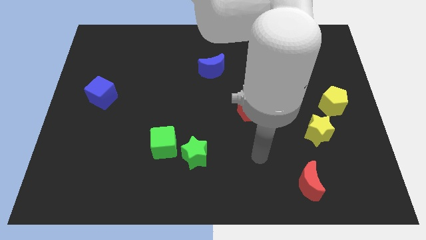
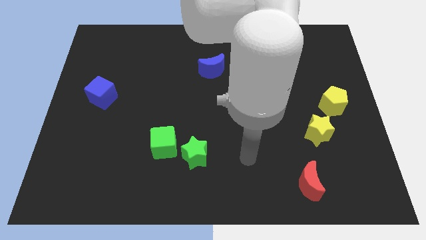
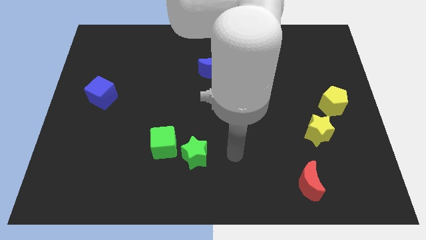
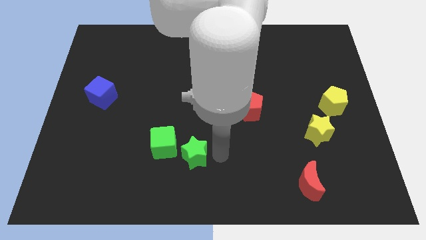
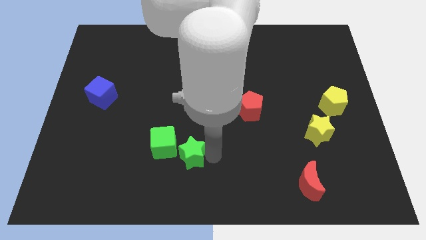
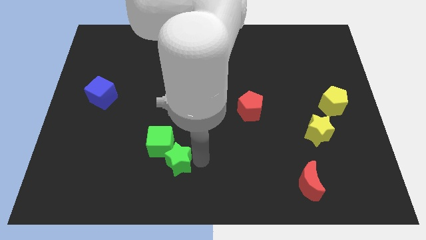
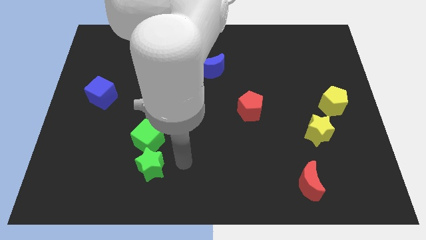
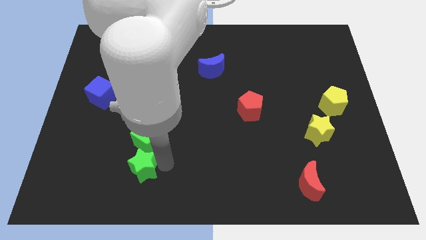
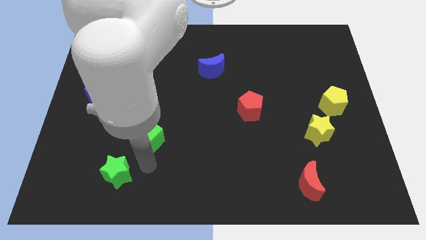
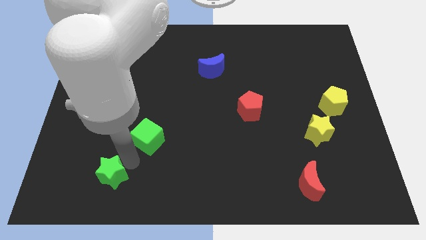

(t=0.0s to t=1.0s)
pull the green cube apart from the green star

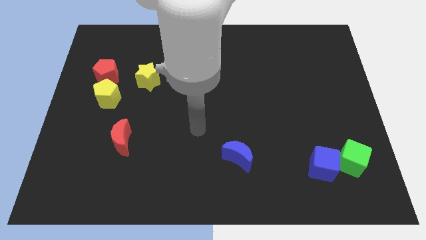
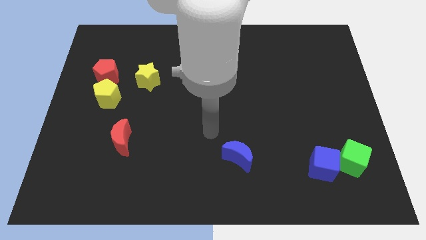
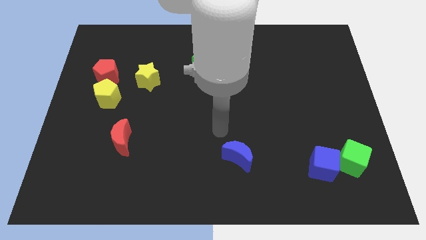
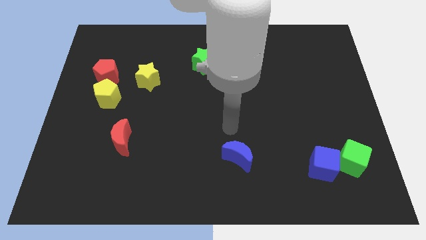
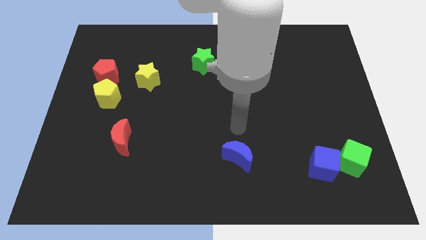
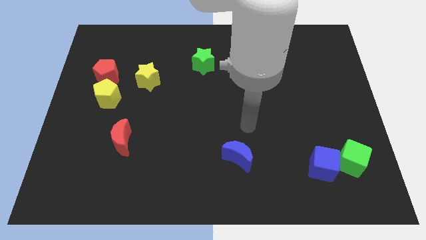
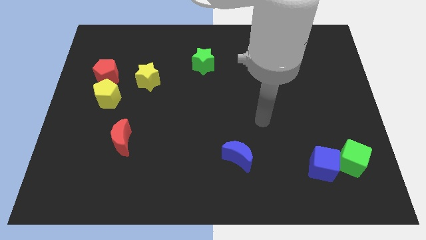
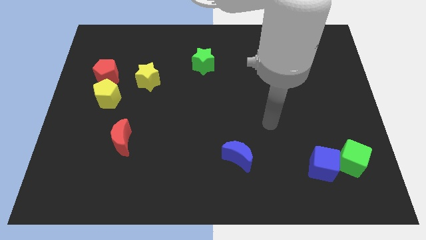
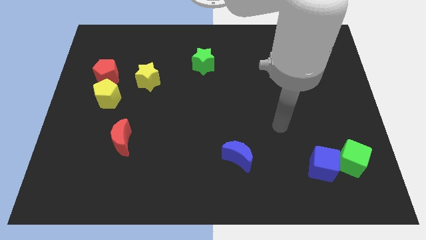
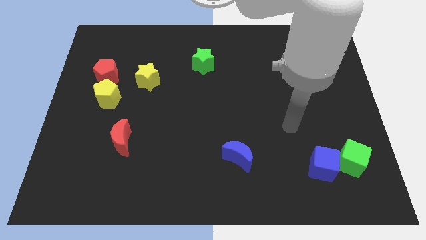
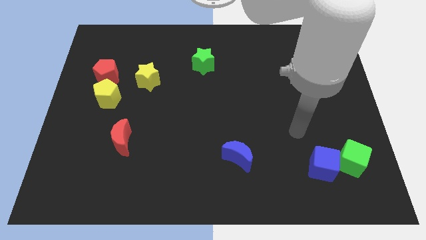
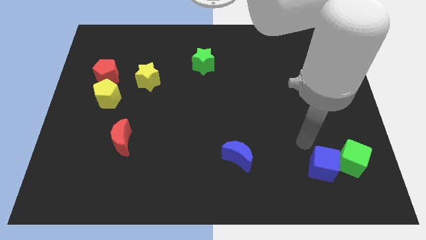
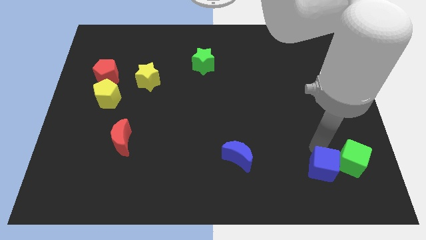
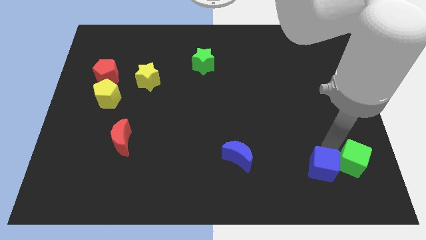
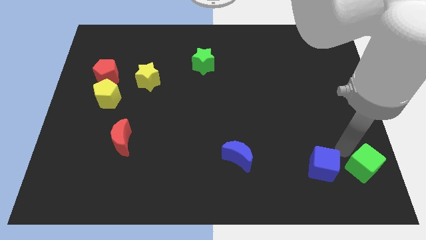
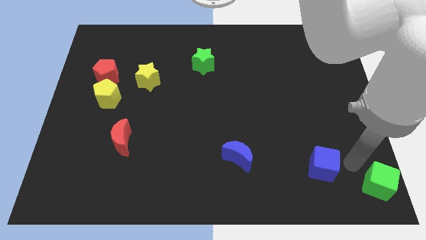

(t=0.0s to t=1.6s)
pull the blue cube apart from the green cube

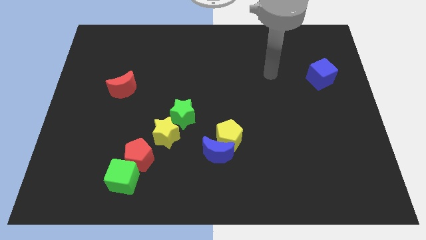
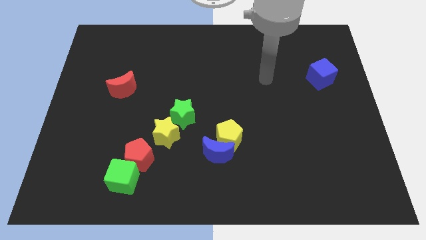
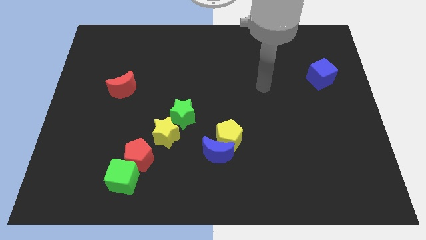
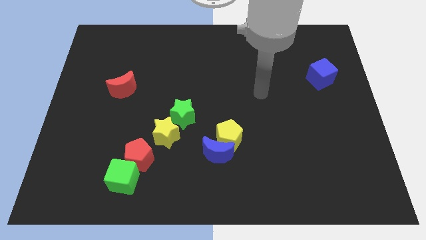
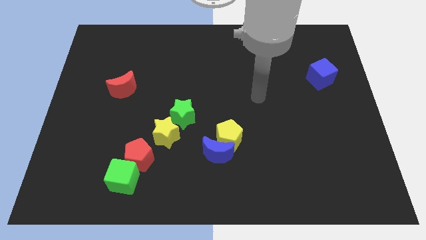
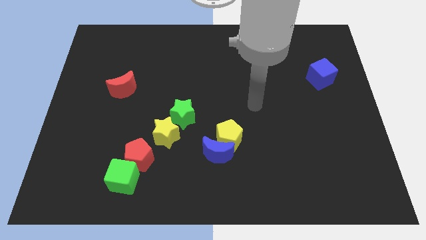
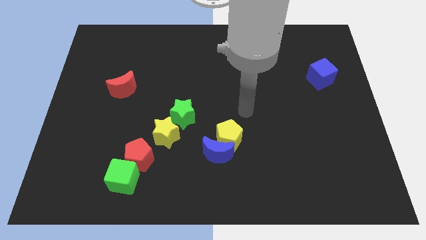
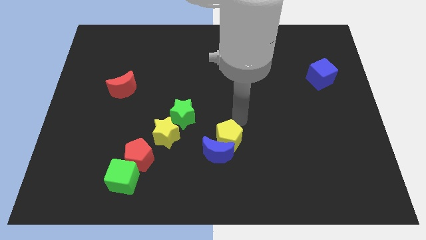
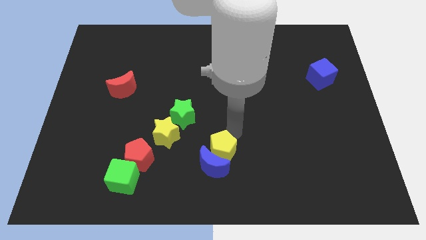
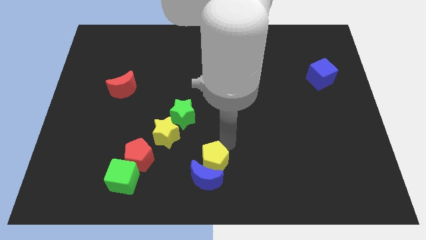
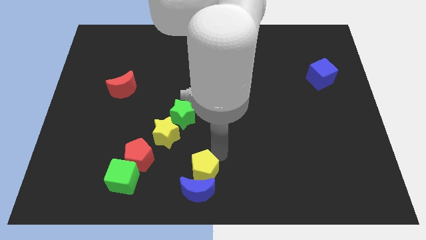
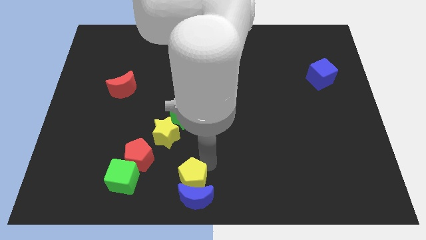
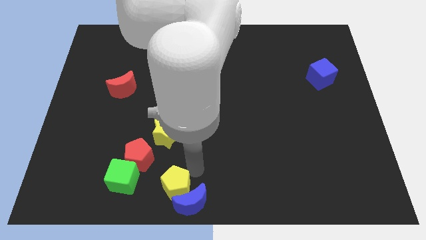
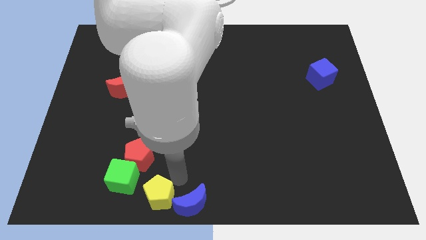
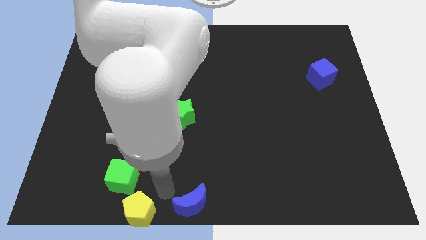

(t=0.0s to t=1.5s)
pull the blue moon apart from the yellow pentagon

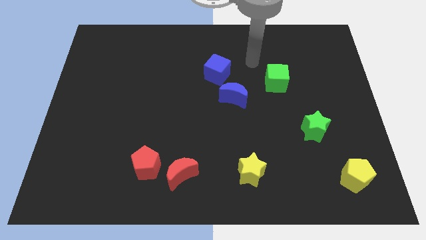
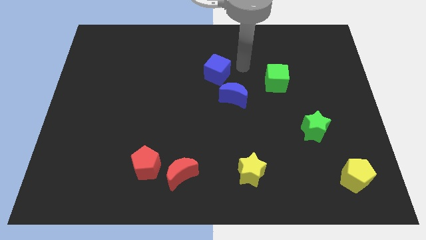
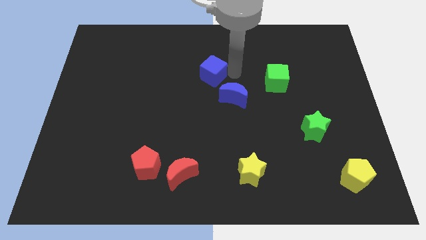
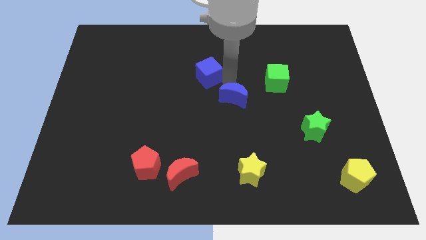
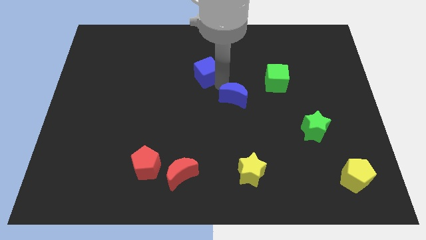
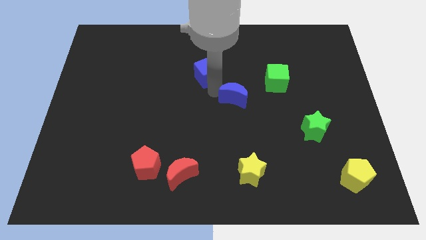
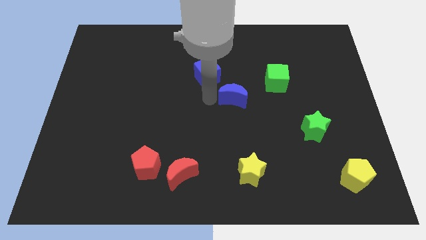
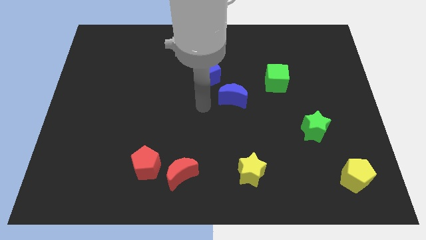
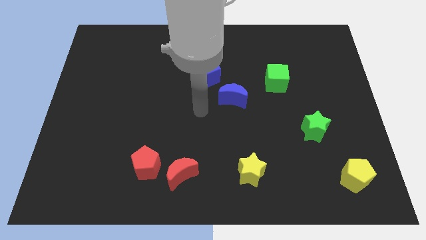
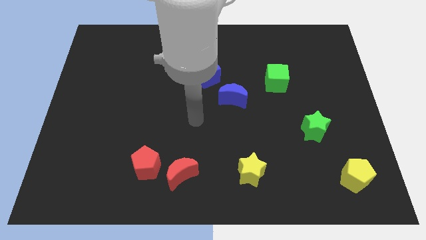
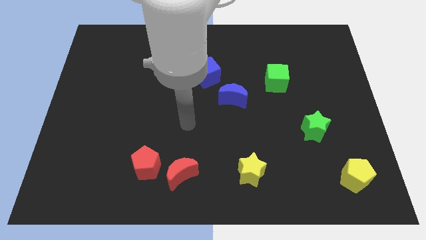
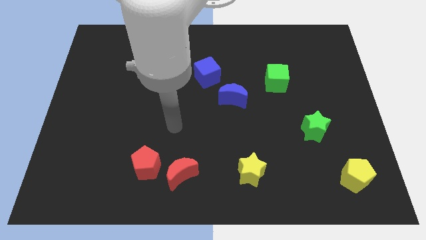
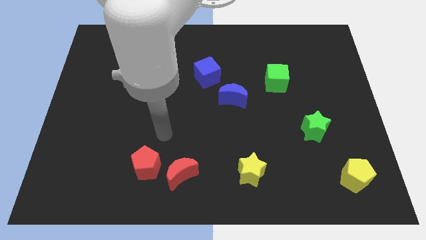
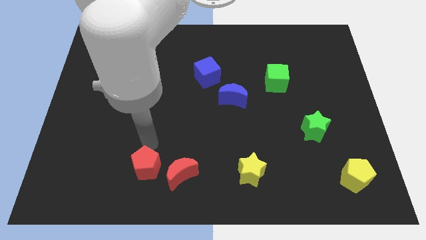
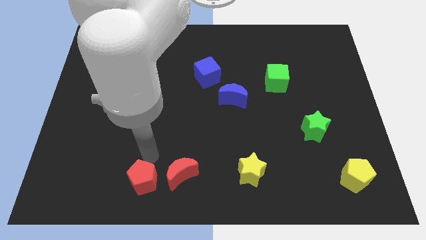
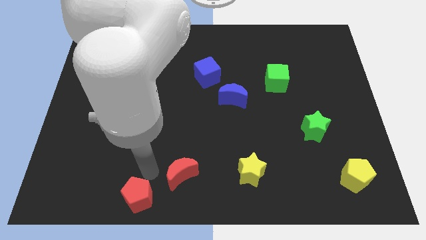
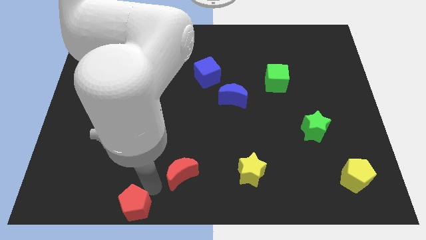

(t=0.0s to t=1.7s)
separate the red moon from the red pentagon

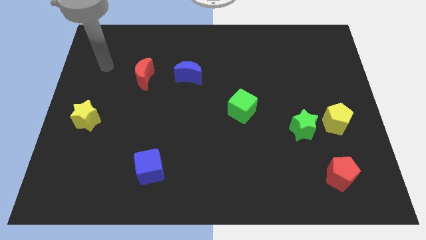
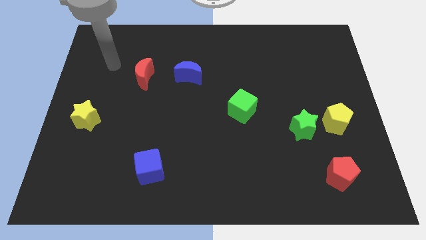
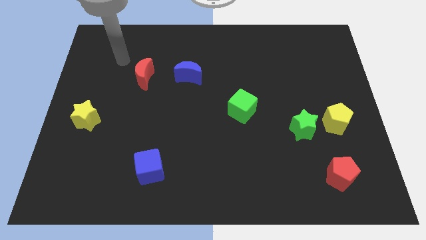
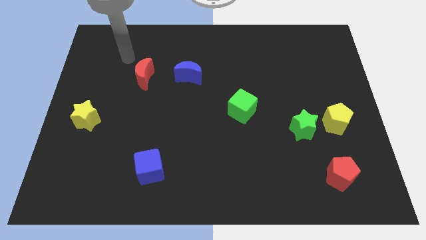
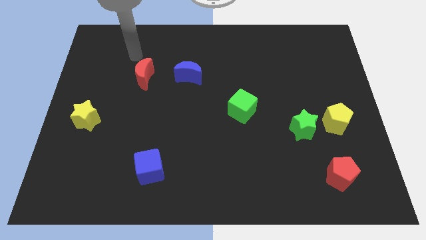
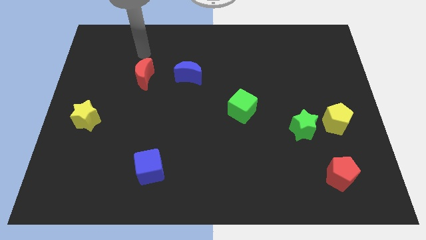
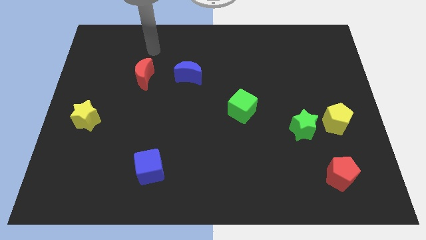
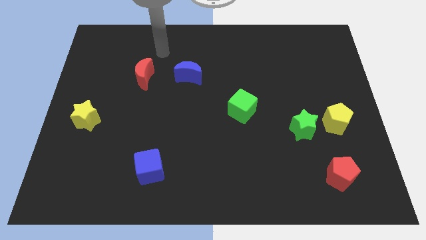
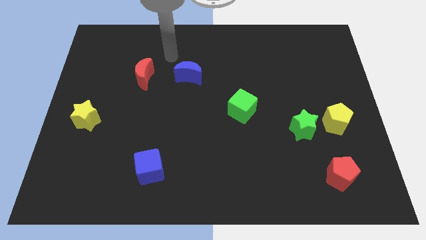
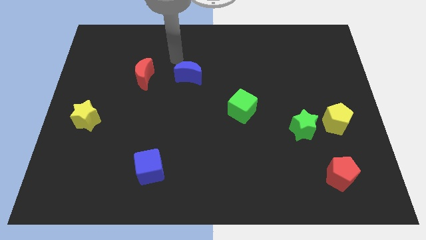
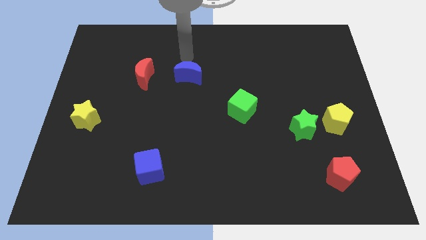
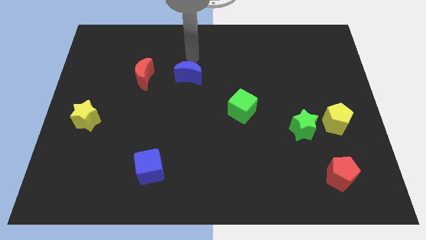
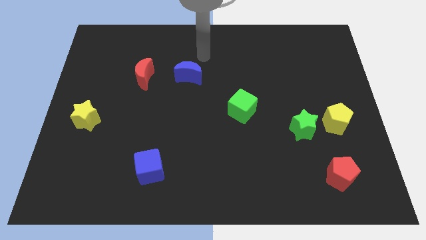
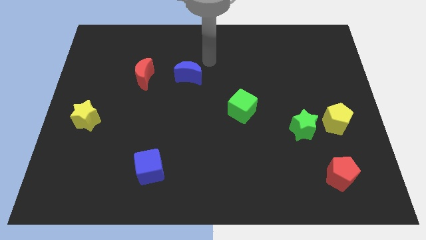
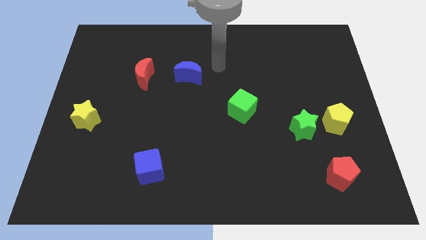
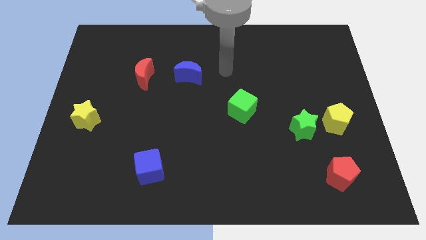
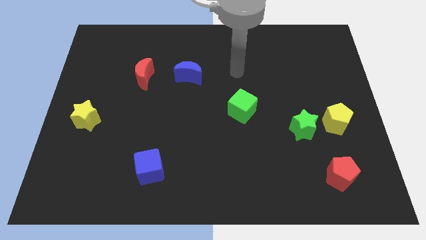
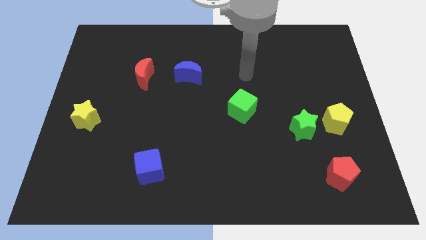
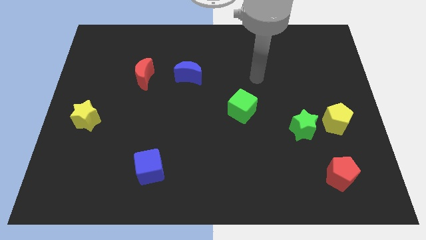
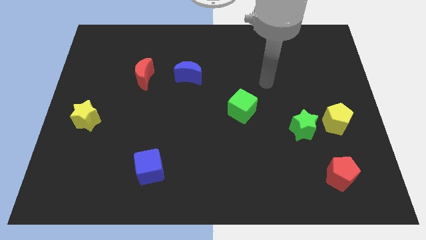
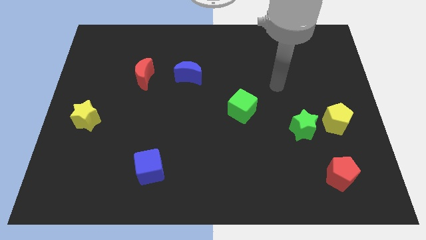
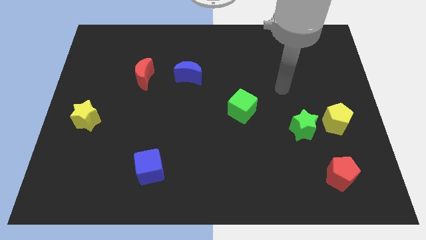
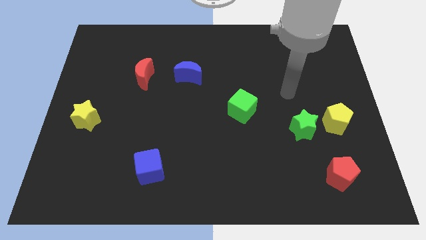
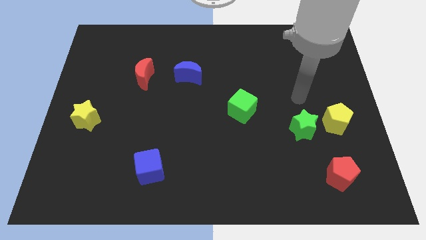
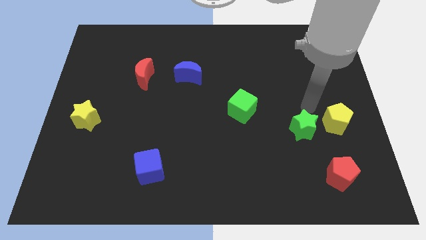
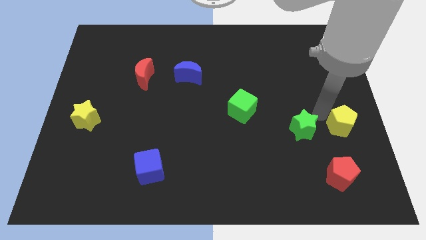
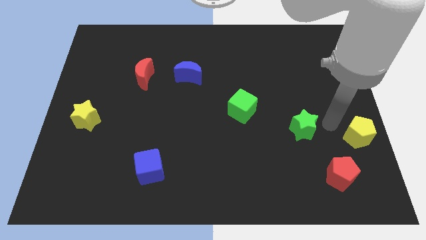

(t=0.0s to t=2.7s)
separate the green star from the yellow pentagon

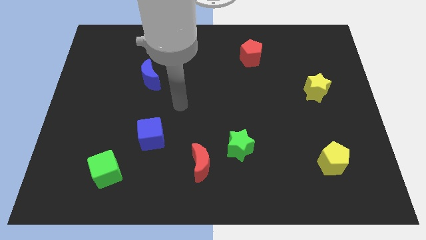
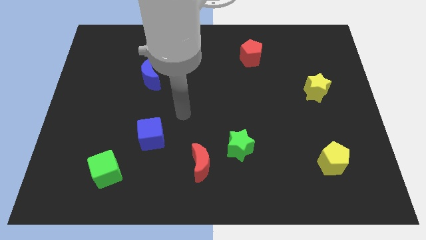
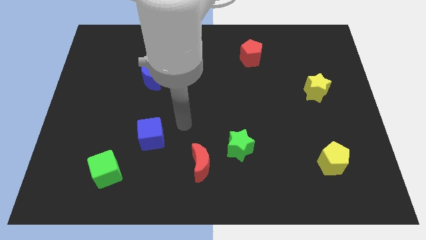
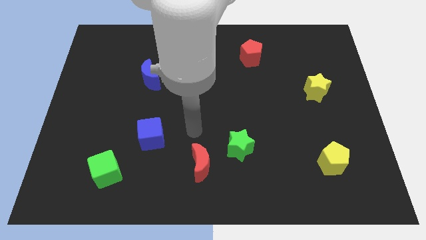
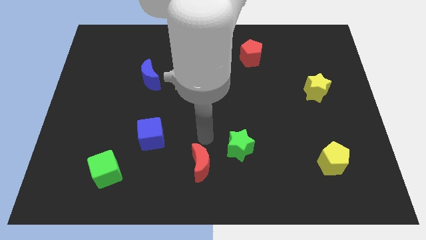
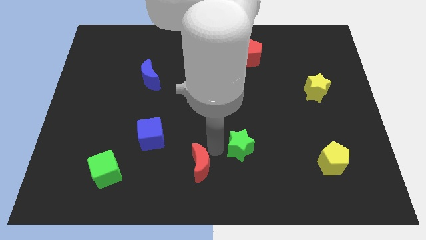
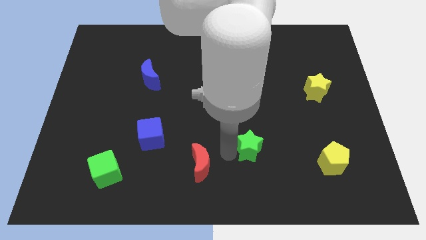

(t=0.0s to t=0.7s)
pull the red moon apart from the green star
